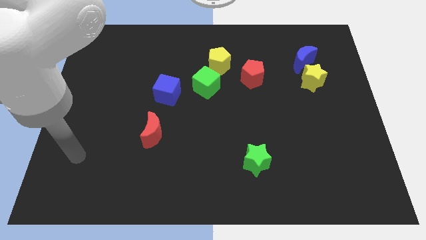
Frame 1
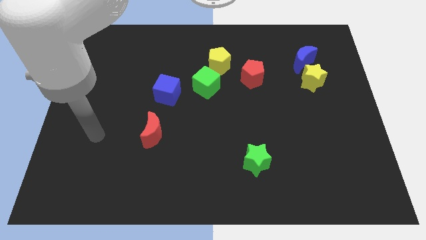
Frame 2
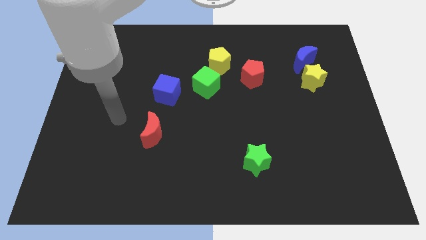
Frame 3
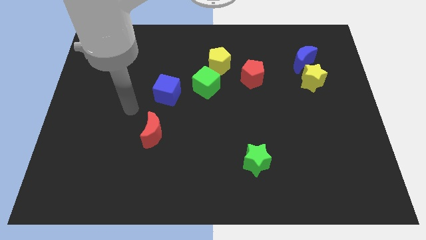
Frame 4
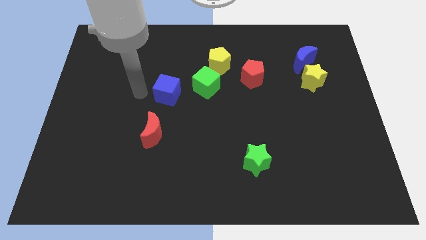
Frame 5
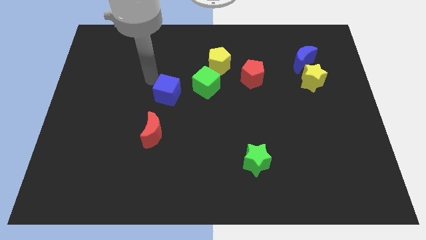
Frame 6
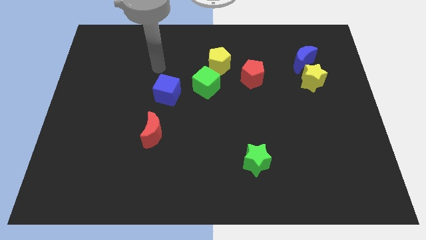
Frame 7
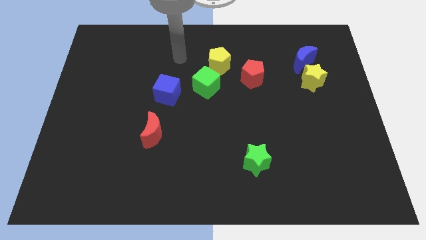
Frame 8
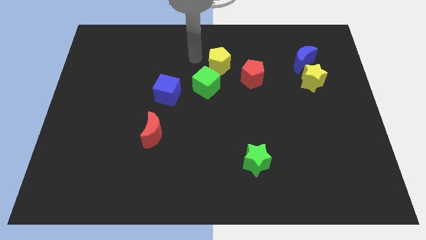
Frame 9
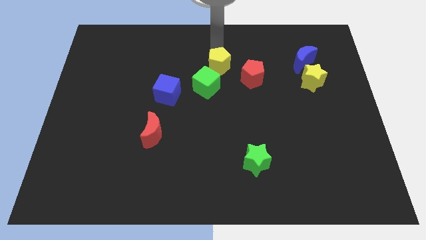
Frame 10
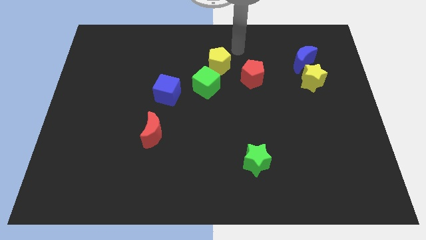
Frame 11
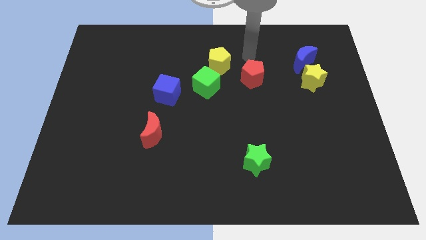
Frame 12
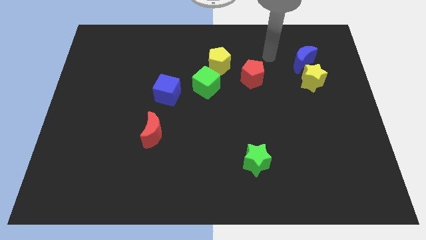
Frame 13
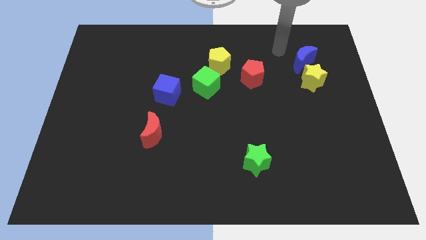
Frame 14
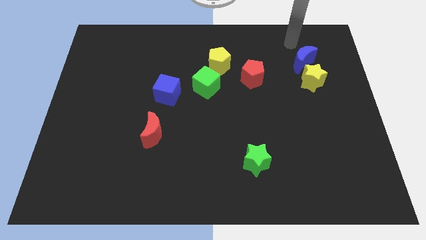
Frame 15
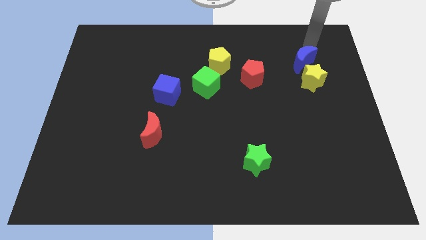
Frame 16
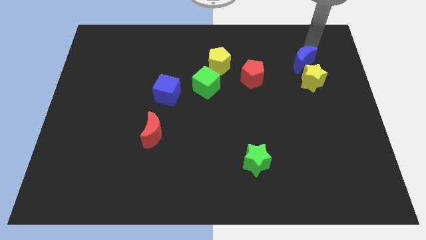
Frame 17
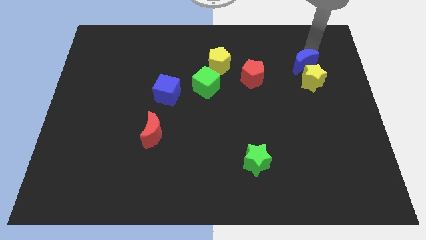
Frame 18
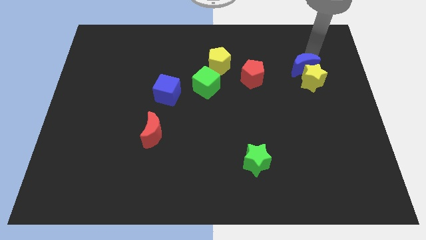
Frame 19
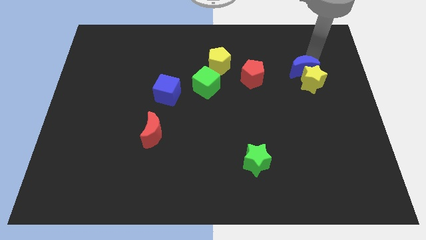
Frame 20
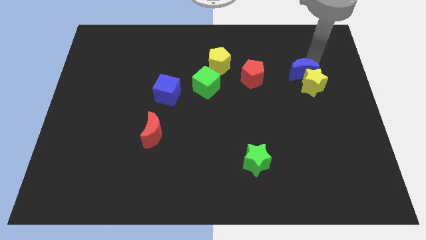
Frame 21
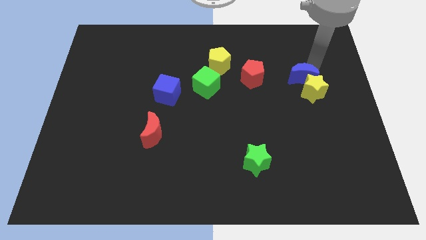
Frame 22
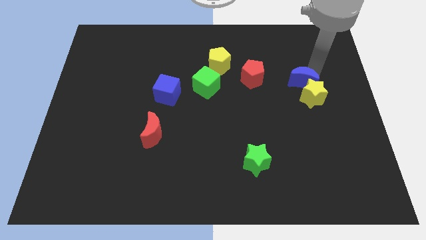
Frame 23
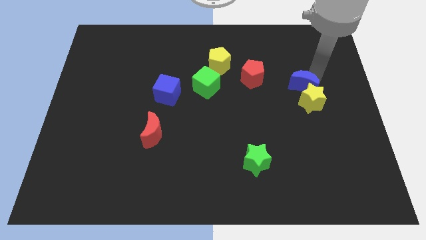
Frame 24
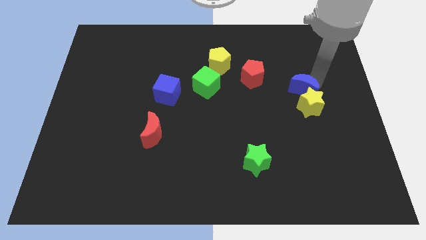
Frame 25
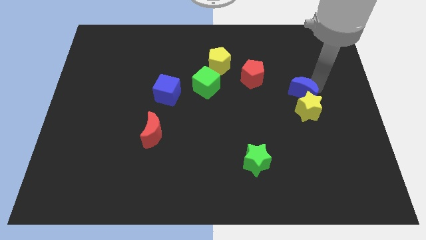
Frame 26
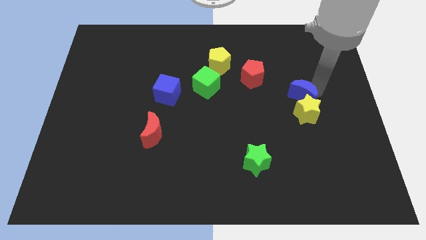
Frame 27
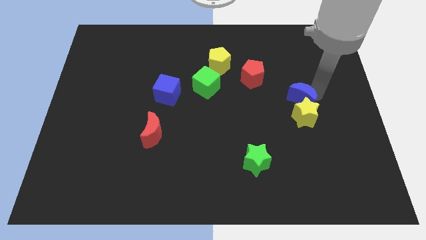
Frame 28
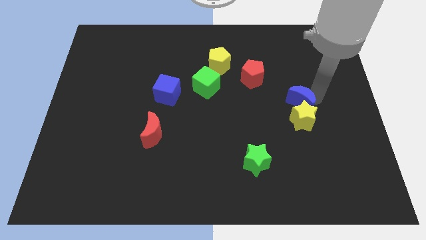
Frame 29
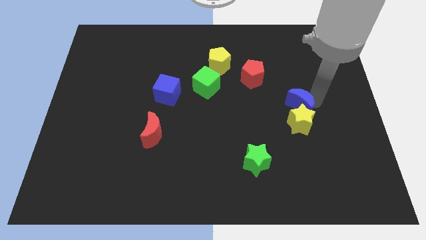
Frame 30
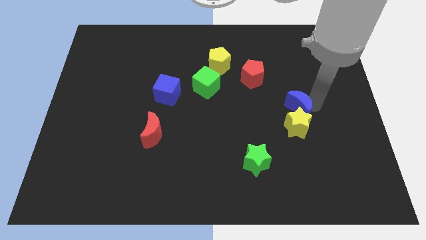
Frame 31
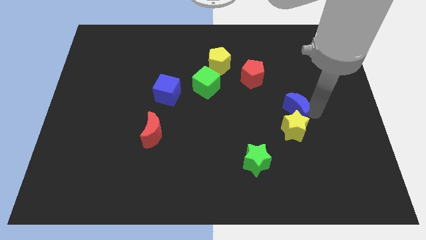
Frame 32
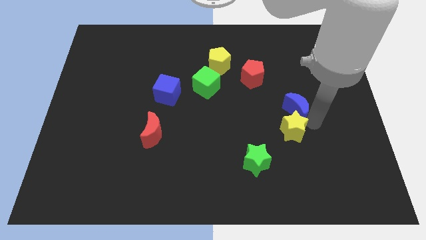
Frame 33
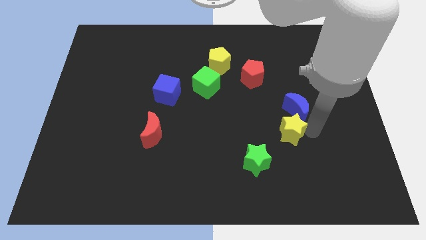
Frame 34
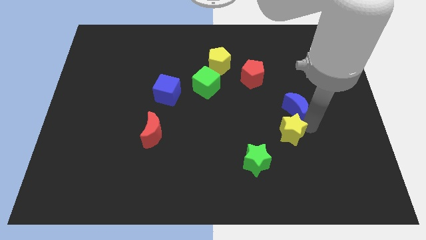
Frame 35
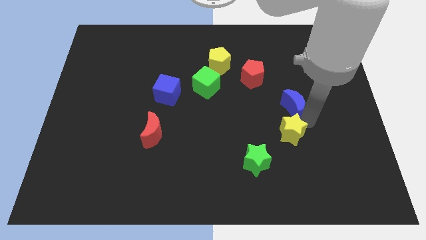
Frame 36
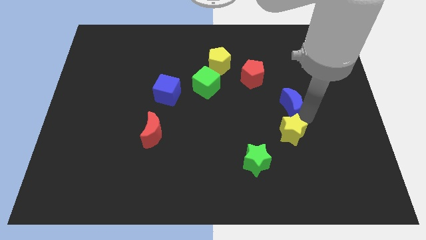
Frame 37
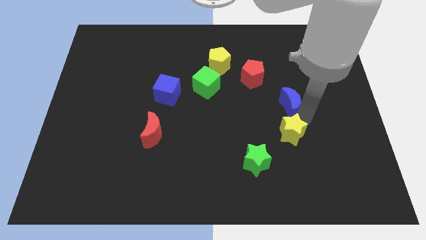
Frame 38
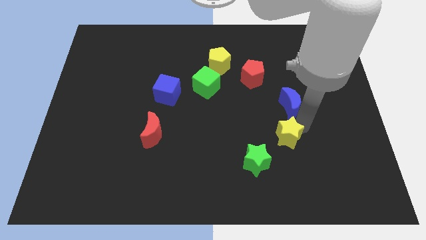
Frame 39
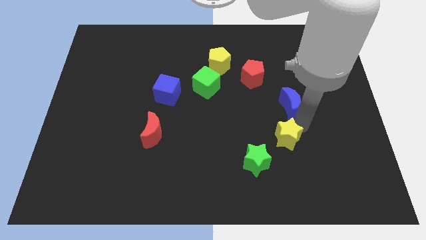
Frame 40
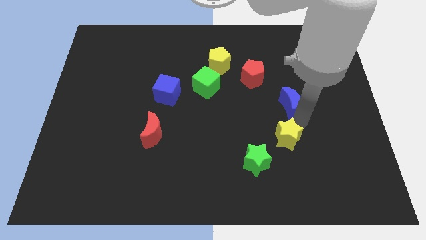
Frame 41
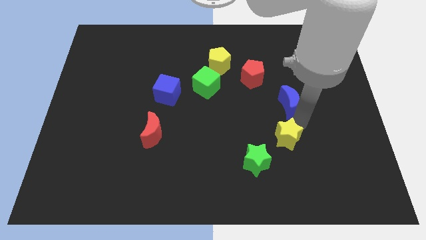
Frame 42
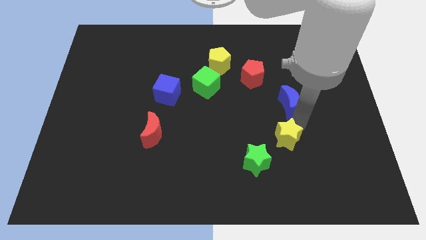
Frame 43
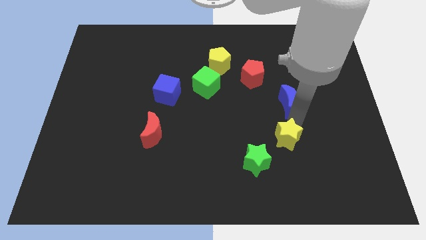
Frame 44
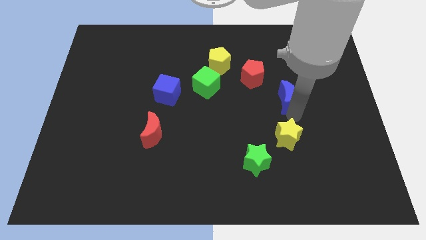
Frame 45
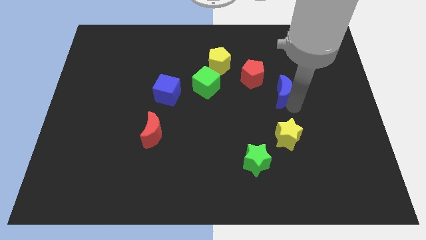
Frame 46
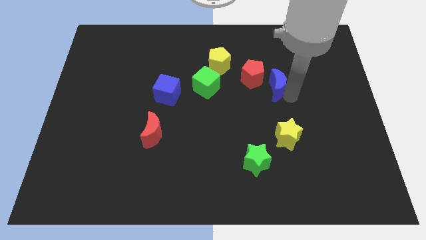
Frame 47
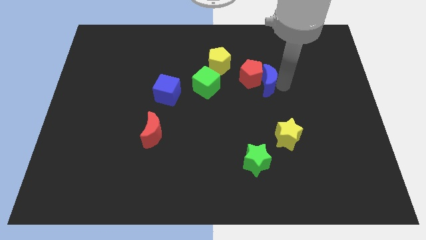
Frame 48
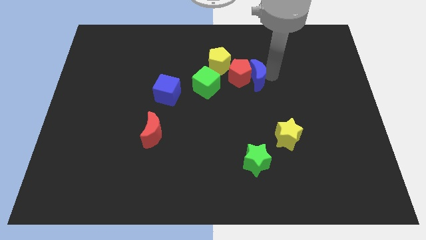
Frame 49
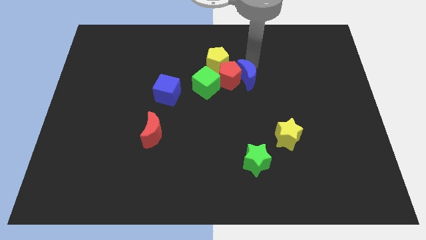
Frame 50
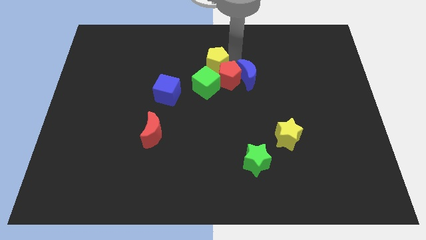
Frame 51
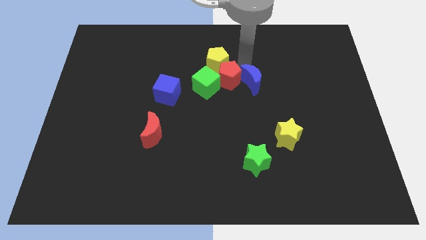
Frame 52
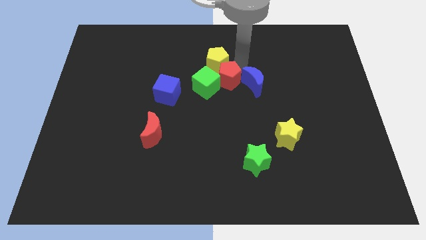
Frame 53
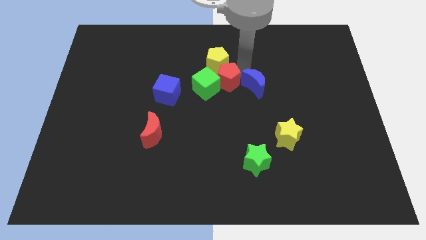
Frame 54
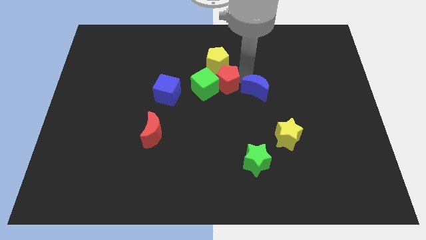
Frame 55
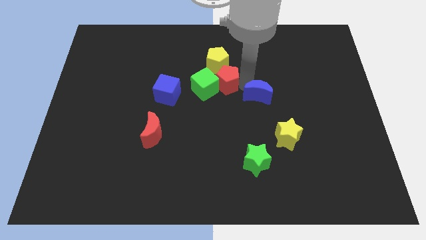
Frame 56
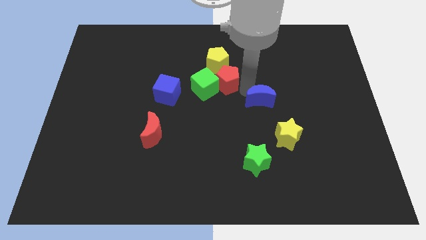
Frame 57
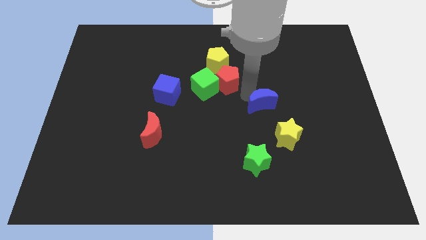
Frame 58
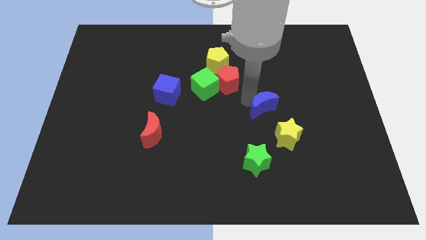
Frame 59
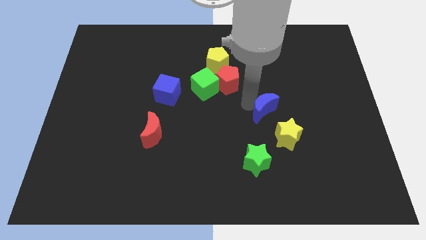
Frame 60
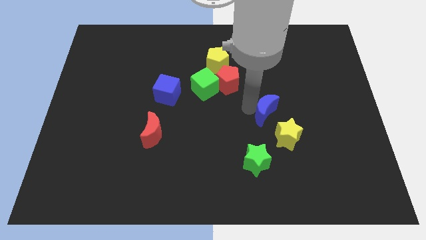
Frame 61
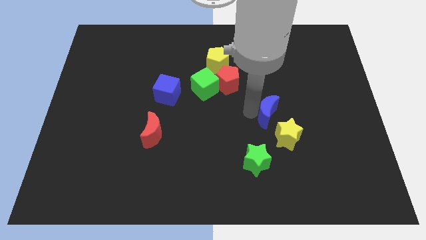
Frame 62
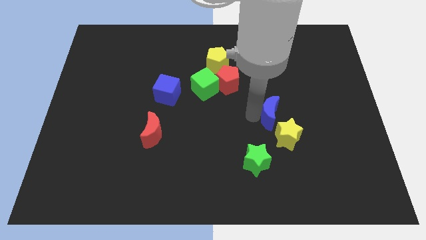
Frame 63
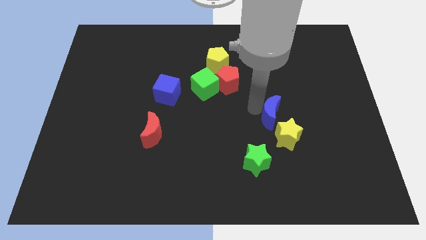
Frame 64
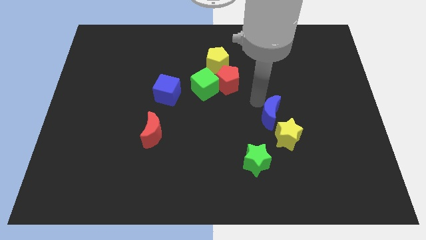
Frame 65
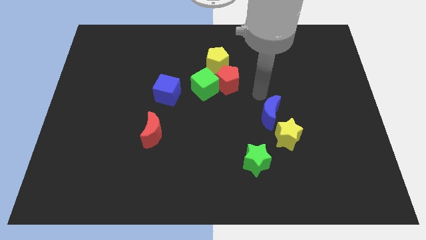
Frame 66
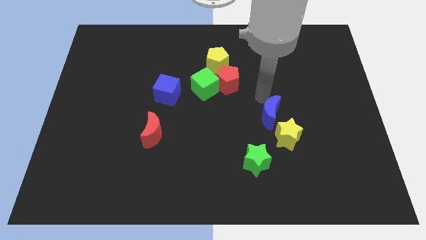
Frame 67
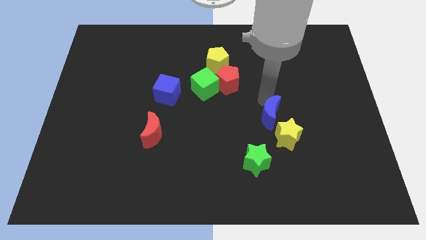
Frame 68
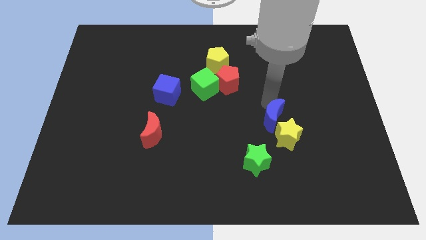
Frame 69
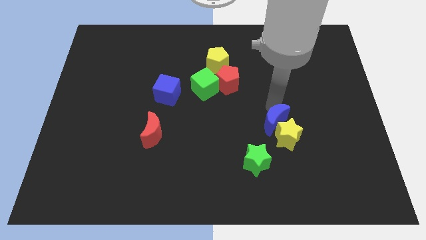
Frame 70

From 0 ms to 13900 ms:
put the blue moon to the top right of the green star

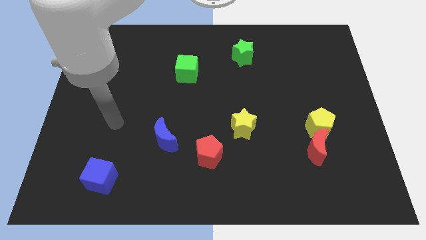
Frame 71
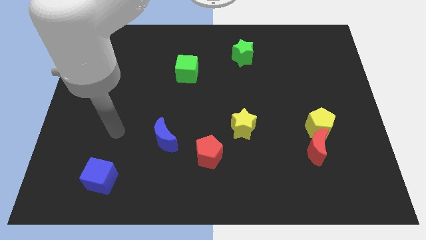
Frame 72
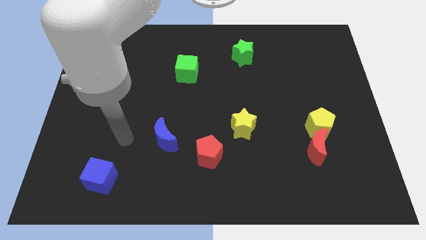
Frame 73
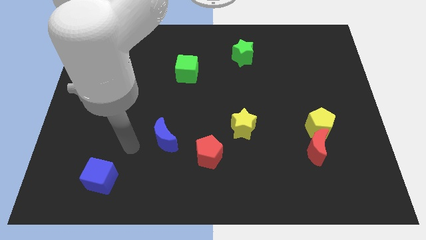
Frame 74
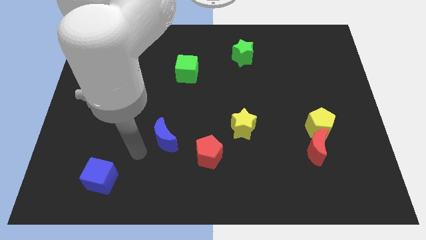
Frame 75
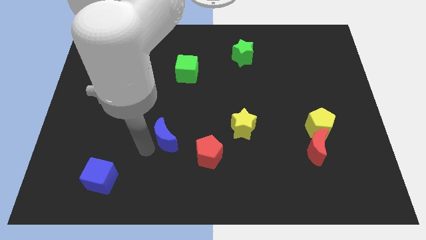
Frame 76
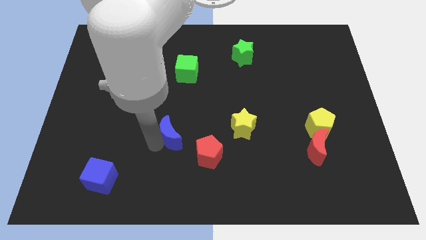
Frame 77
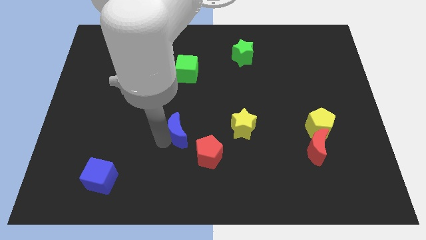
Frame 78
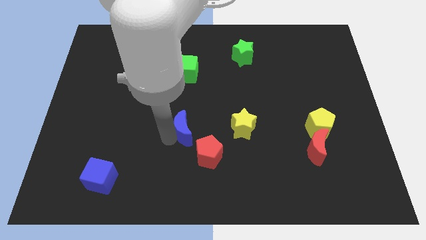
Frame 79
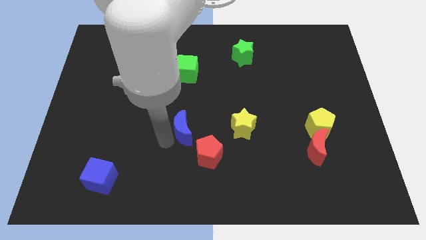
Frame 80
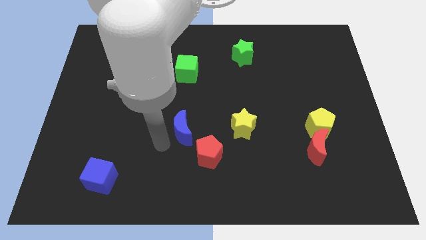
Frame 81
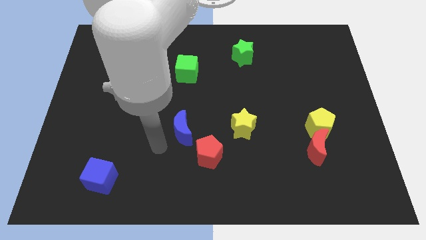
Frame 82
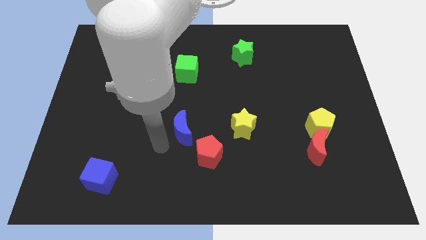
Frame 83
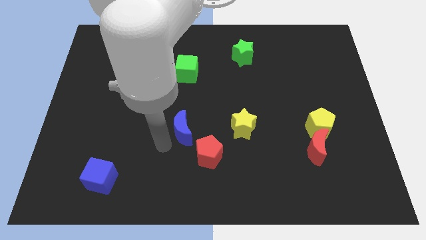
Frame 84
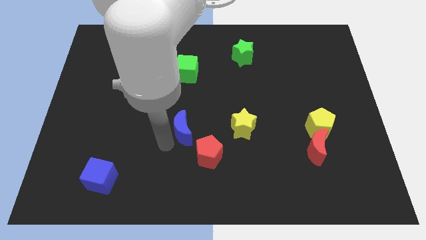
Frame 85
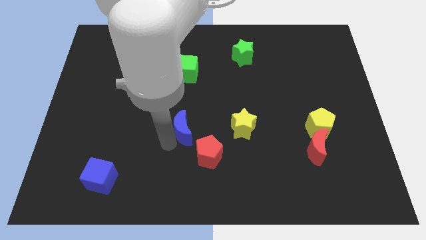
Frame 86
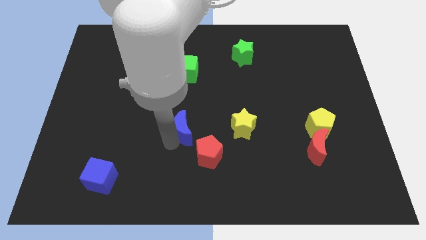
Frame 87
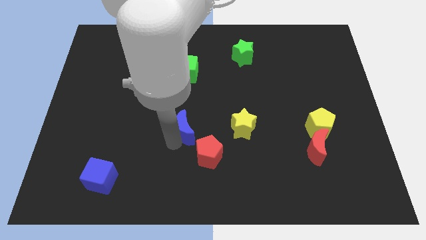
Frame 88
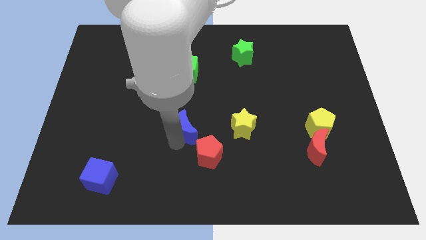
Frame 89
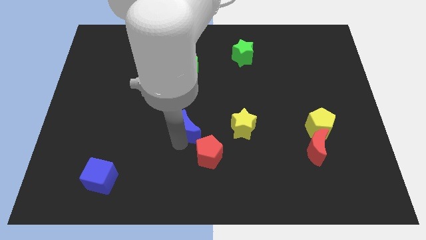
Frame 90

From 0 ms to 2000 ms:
put the blue moon to the top side of the red pentagon
